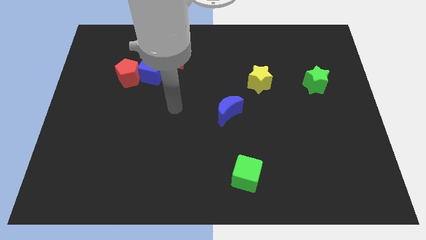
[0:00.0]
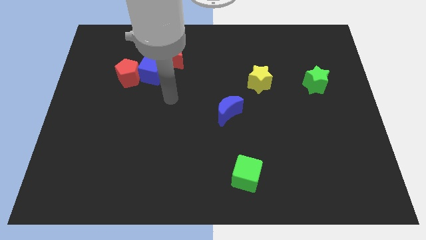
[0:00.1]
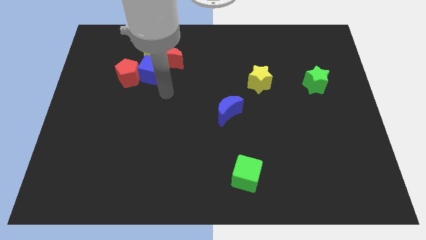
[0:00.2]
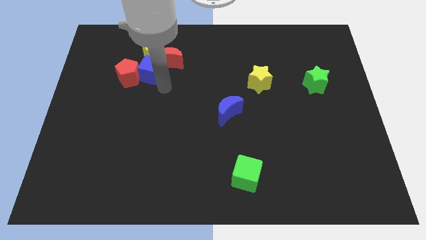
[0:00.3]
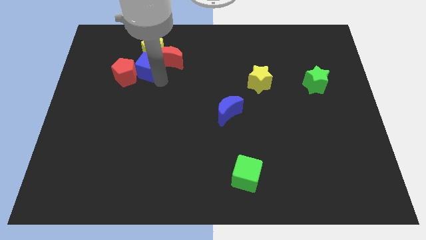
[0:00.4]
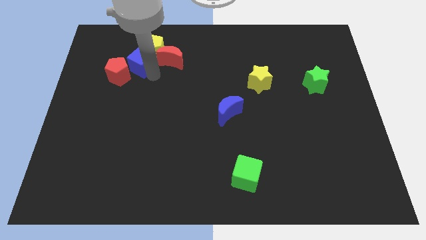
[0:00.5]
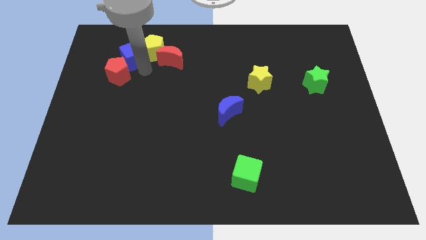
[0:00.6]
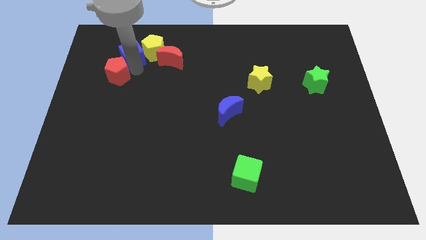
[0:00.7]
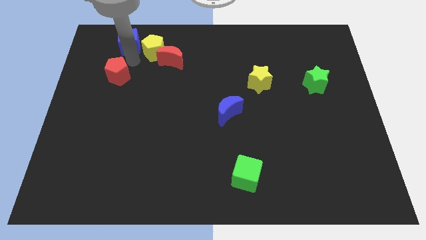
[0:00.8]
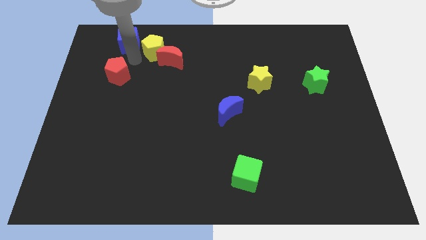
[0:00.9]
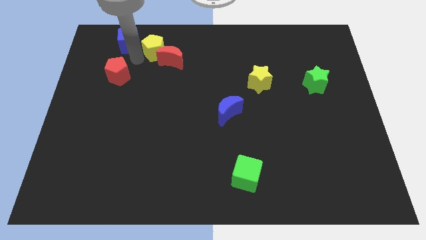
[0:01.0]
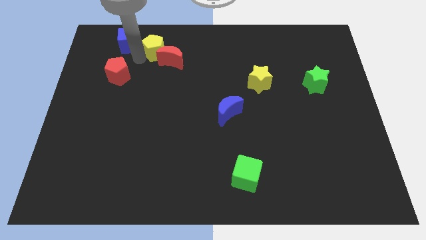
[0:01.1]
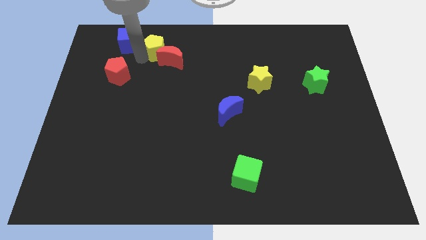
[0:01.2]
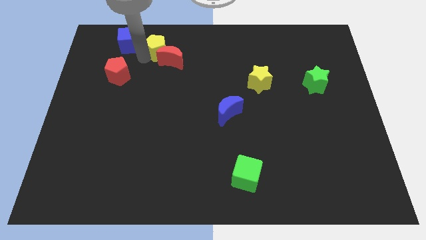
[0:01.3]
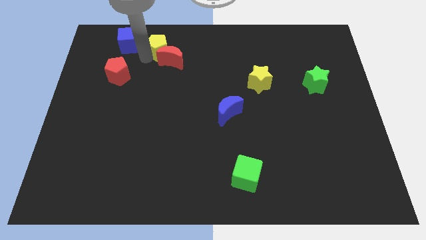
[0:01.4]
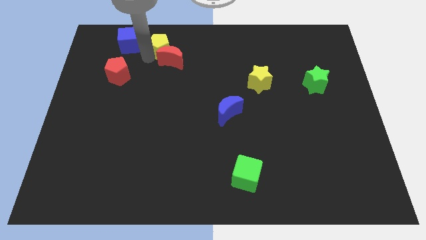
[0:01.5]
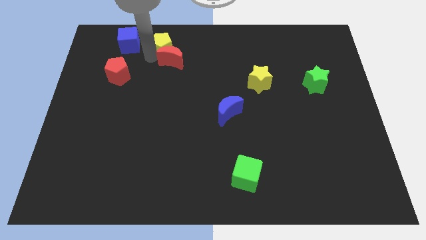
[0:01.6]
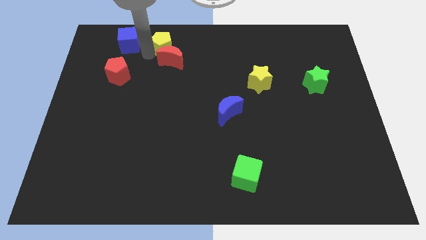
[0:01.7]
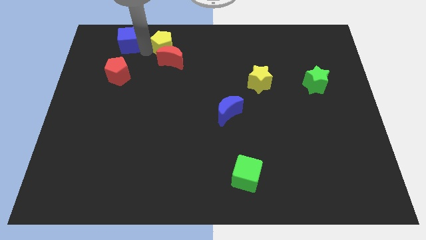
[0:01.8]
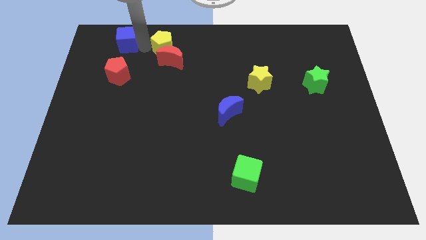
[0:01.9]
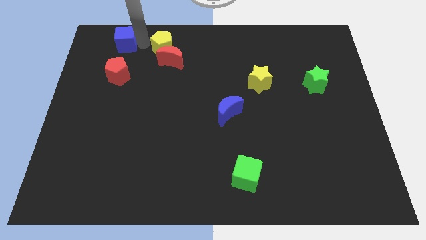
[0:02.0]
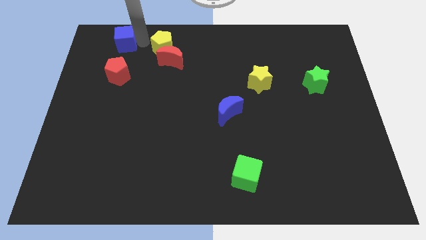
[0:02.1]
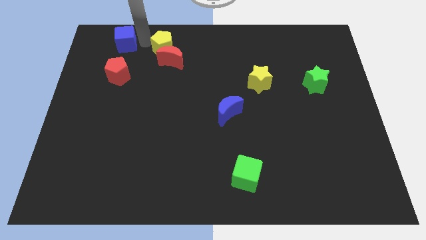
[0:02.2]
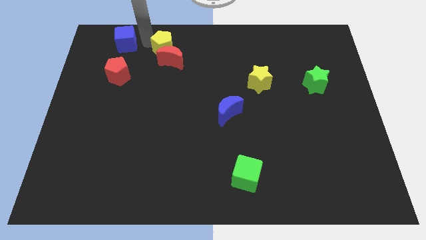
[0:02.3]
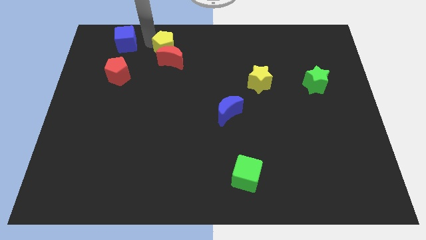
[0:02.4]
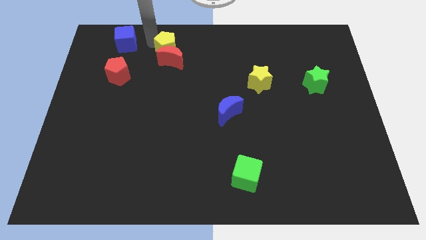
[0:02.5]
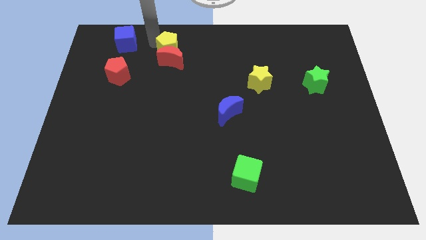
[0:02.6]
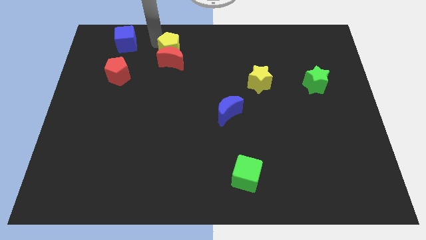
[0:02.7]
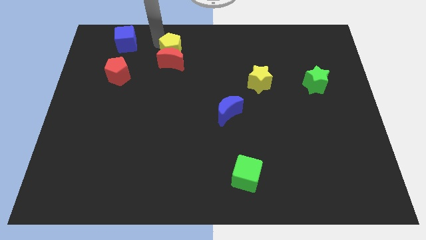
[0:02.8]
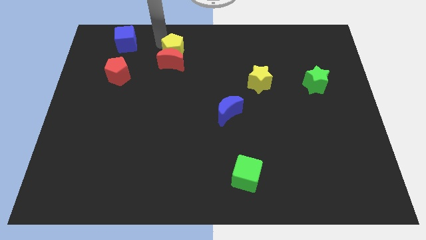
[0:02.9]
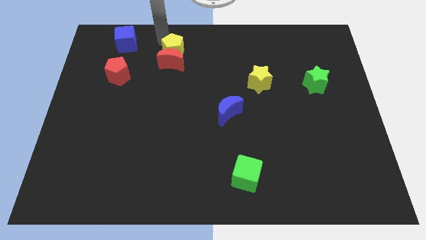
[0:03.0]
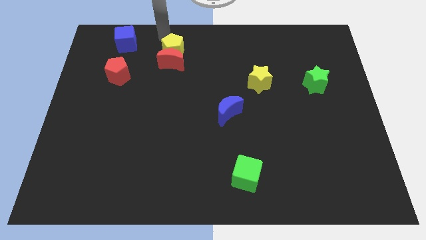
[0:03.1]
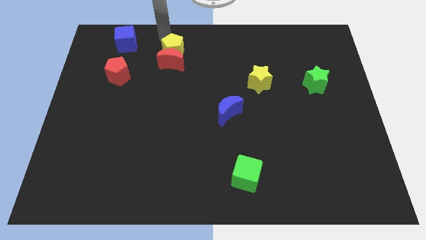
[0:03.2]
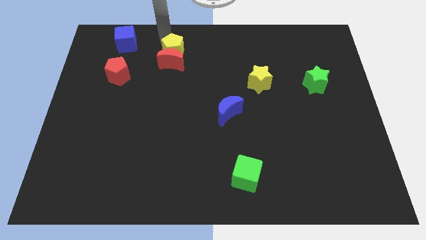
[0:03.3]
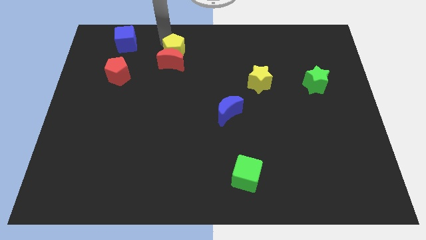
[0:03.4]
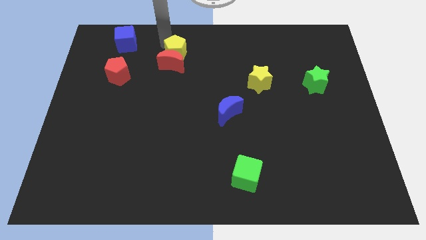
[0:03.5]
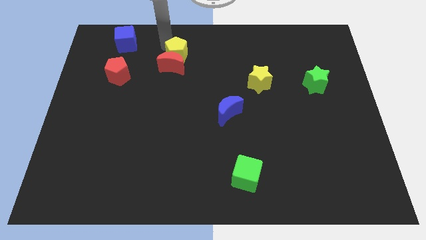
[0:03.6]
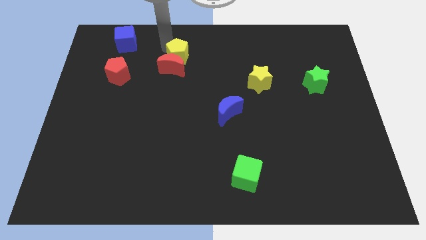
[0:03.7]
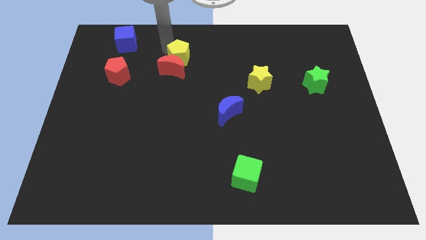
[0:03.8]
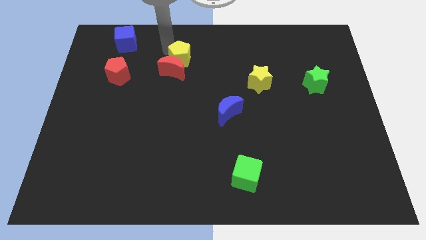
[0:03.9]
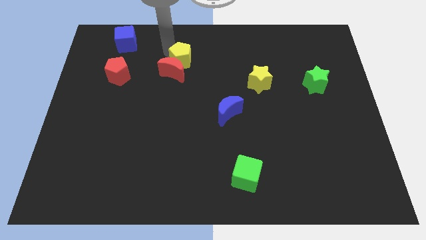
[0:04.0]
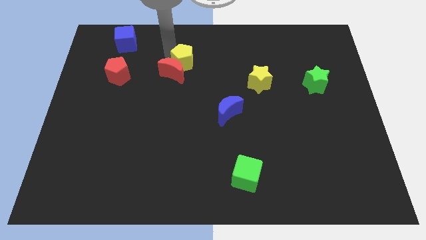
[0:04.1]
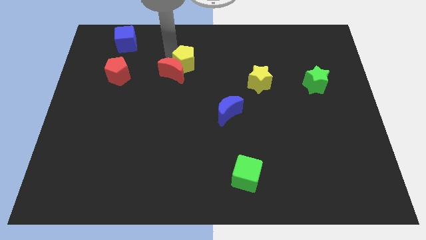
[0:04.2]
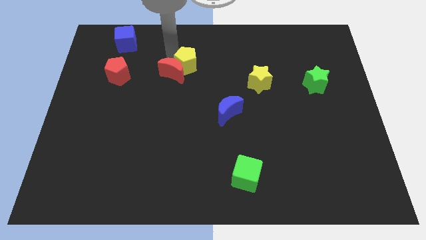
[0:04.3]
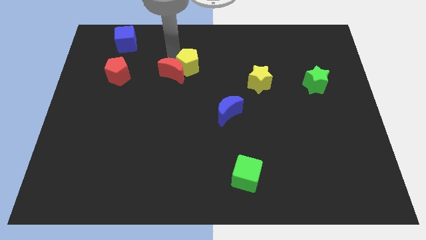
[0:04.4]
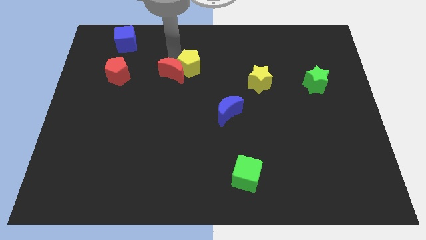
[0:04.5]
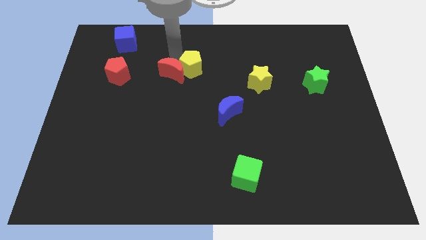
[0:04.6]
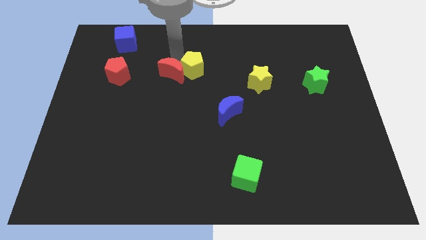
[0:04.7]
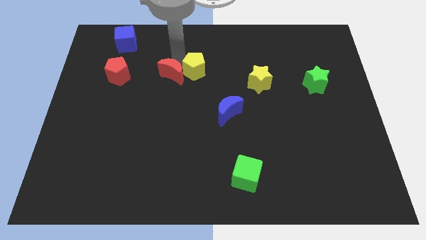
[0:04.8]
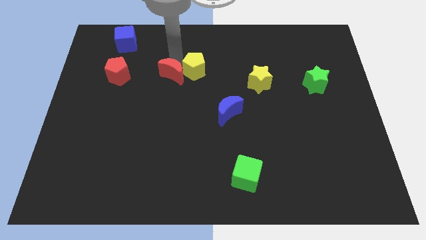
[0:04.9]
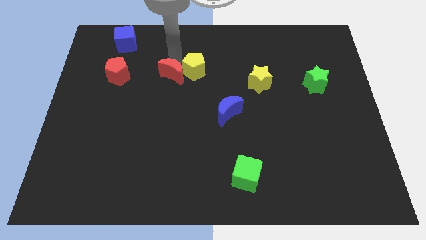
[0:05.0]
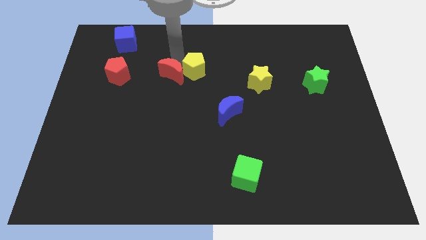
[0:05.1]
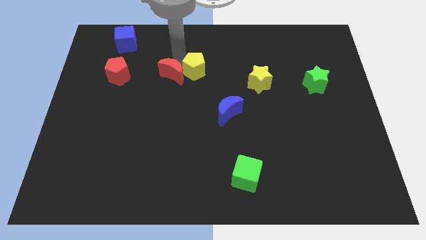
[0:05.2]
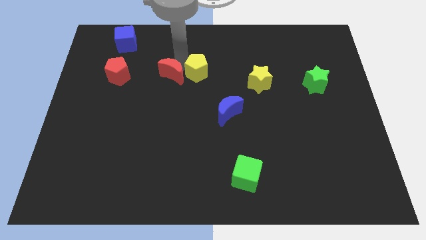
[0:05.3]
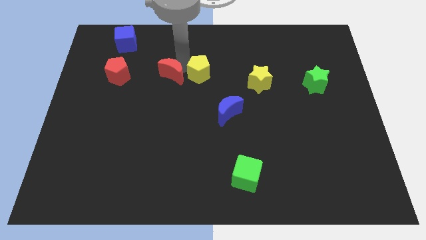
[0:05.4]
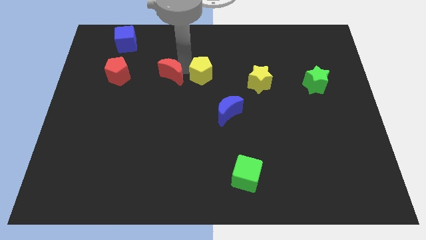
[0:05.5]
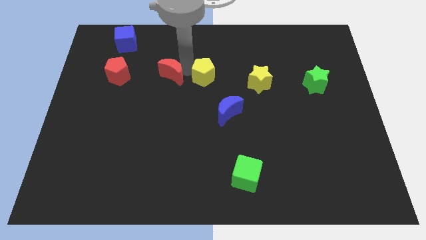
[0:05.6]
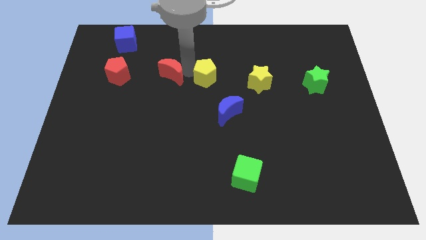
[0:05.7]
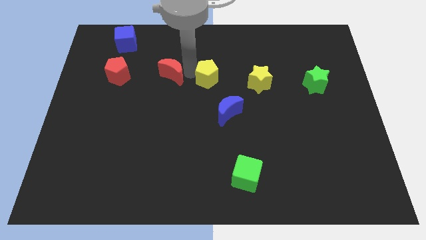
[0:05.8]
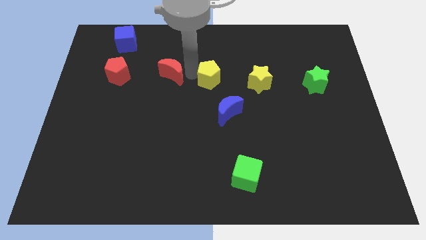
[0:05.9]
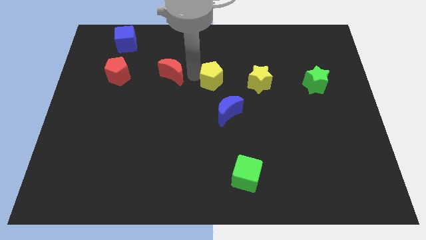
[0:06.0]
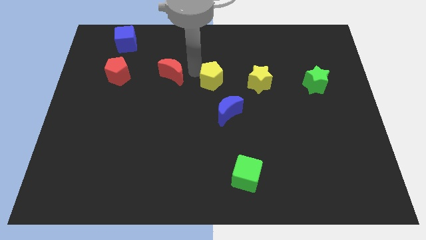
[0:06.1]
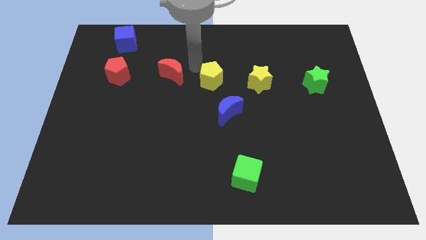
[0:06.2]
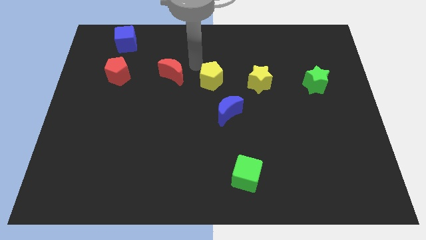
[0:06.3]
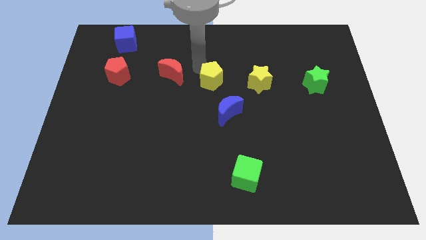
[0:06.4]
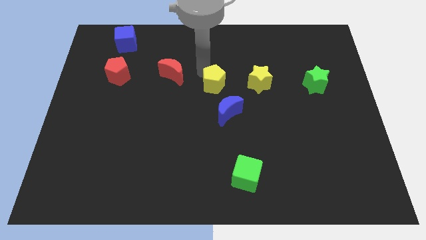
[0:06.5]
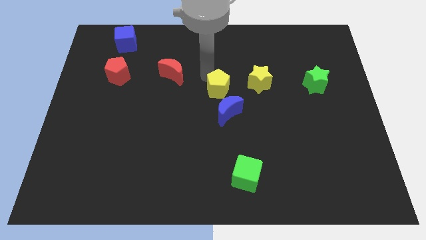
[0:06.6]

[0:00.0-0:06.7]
slide the yellow pentagon down and to the right

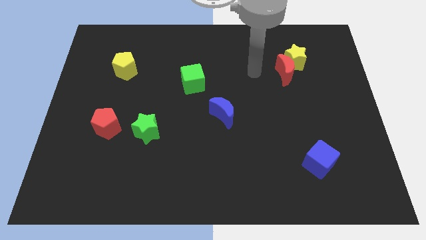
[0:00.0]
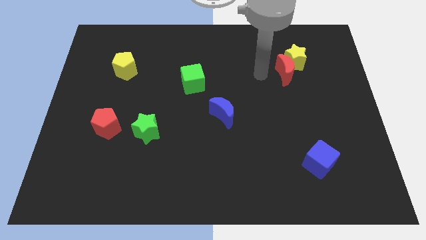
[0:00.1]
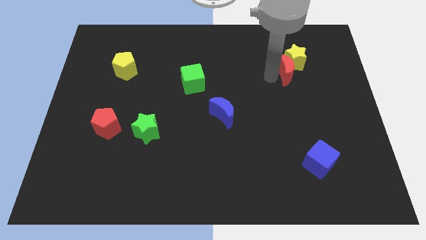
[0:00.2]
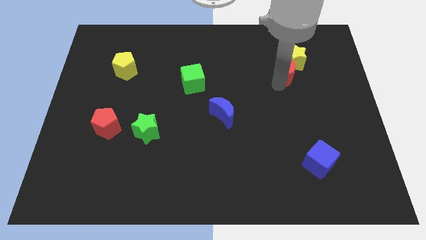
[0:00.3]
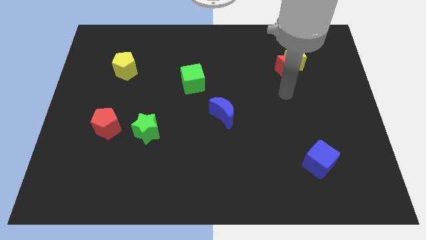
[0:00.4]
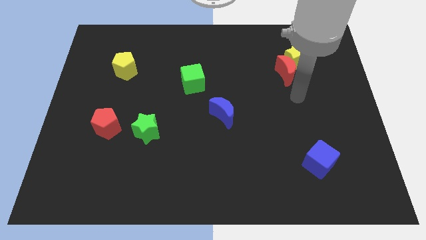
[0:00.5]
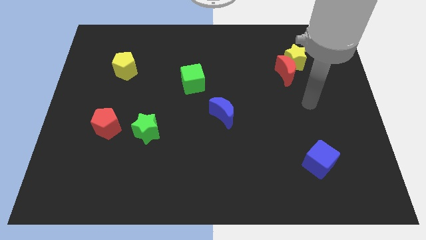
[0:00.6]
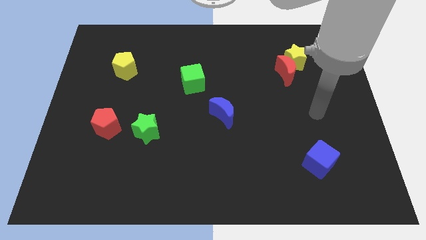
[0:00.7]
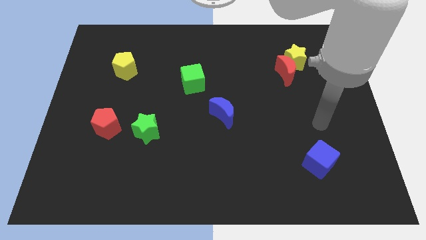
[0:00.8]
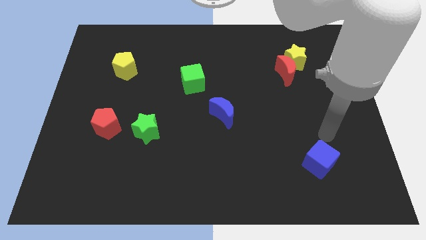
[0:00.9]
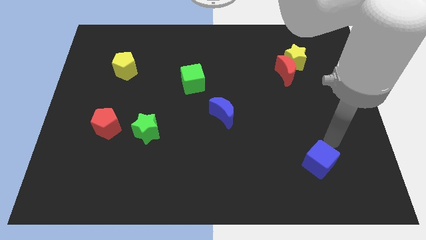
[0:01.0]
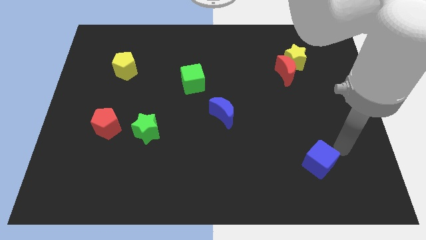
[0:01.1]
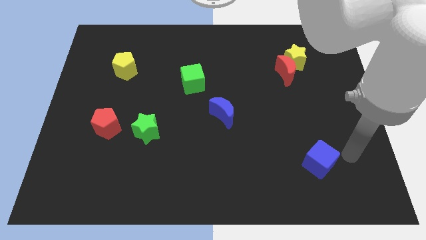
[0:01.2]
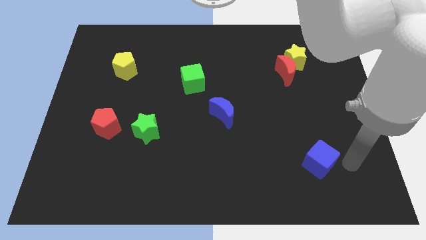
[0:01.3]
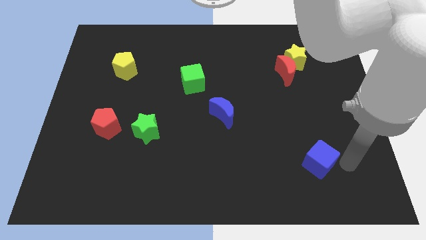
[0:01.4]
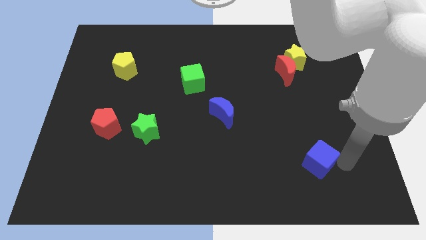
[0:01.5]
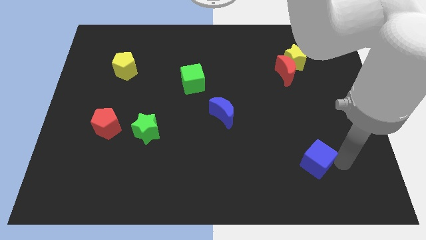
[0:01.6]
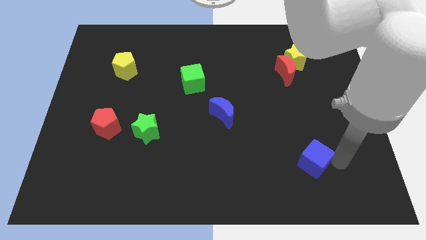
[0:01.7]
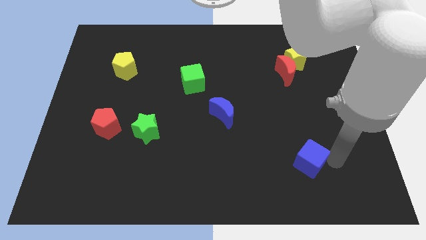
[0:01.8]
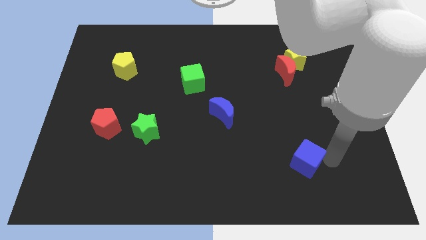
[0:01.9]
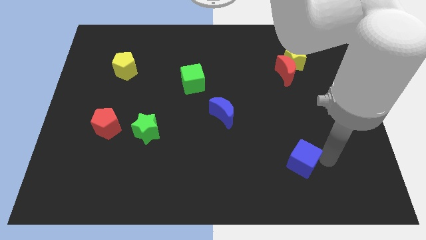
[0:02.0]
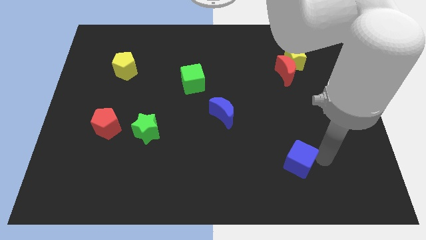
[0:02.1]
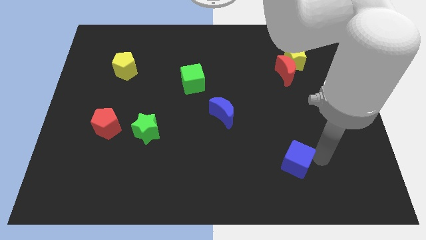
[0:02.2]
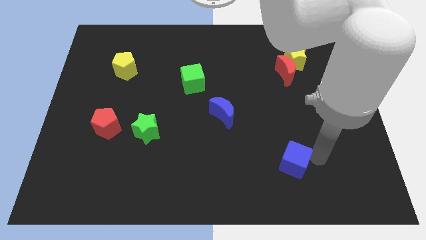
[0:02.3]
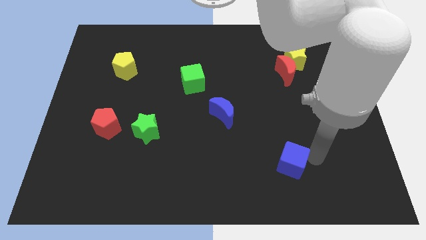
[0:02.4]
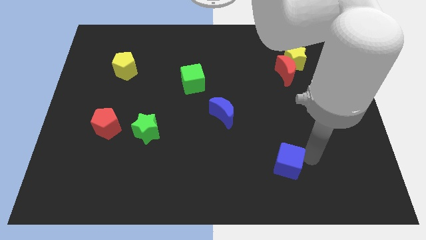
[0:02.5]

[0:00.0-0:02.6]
move the blue cube to the left a little
